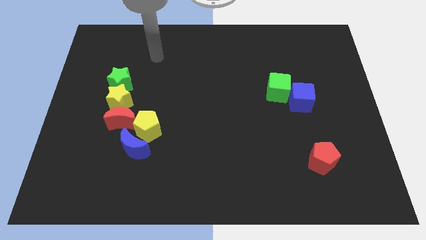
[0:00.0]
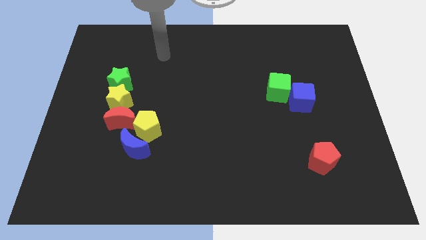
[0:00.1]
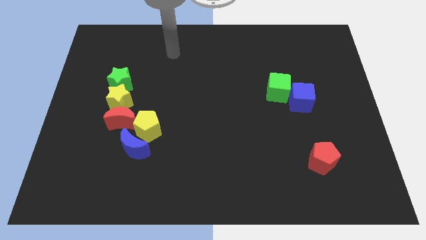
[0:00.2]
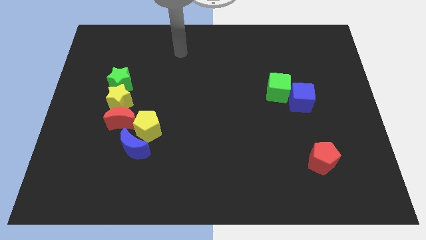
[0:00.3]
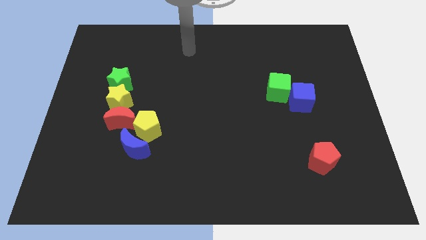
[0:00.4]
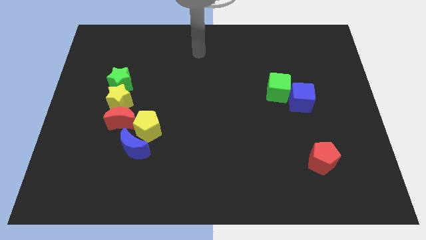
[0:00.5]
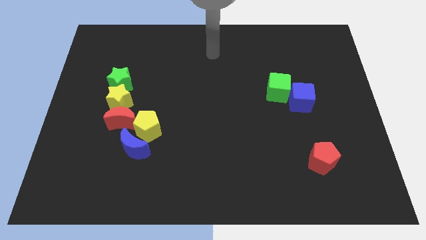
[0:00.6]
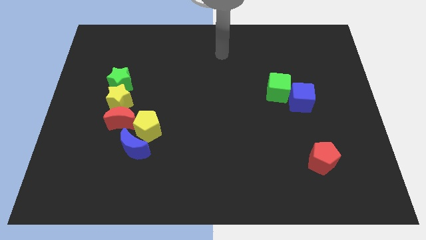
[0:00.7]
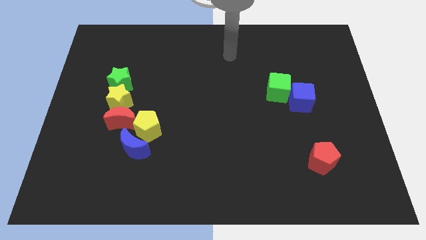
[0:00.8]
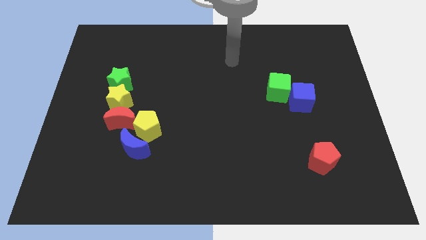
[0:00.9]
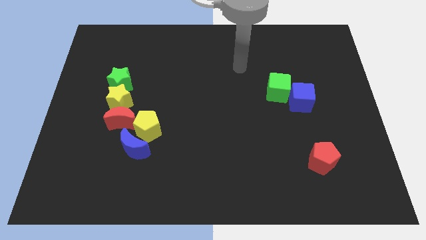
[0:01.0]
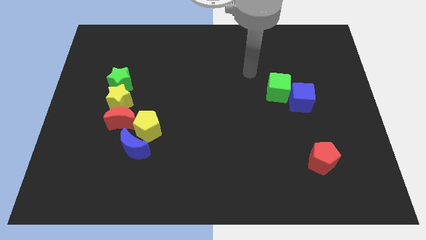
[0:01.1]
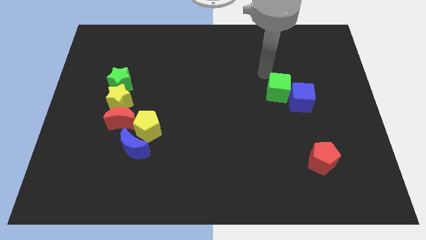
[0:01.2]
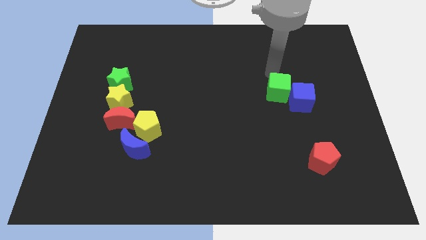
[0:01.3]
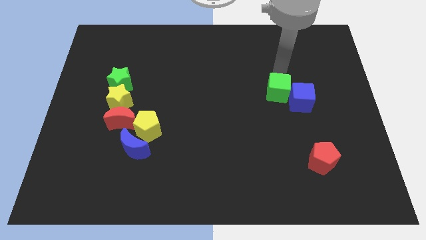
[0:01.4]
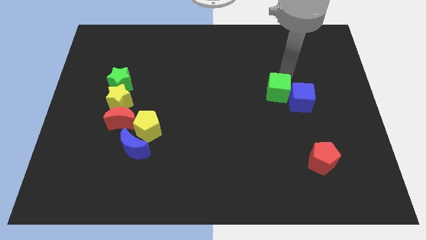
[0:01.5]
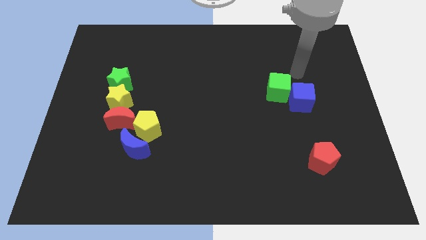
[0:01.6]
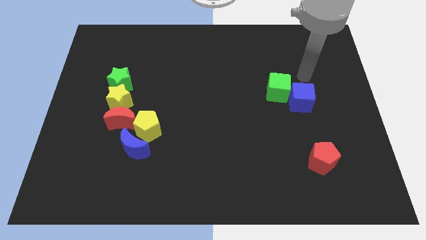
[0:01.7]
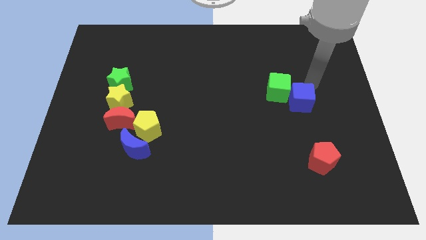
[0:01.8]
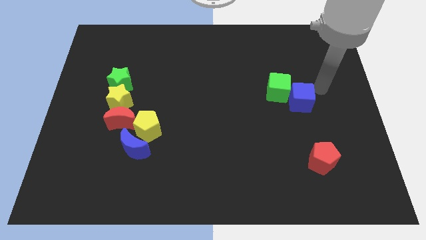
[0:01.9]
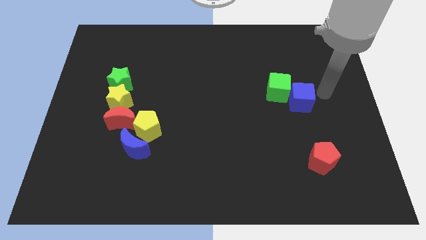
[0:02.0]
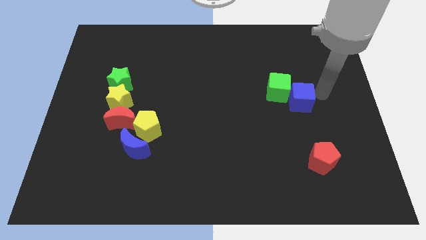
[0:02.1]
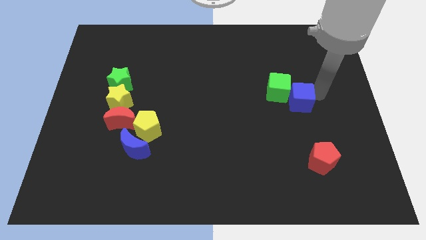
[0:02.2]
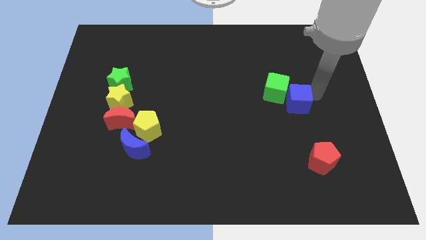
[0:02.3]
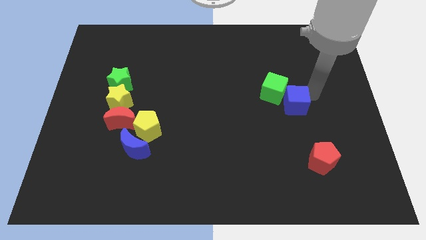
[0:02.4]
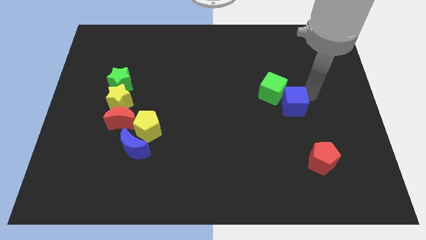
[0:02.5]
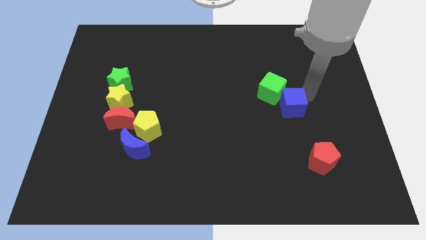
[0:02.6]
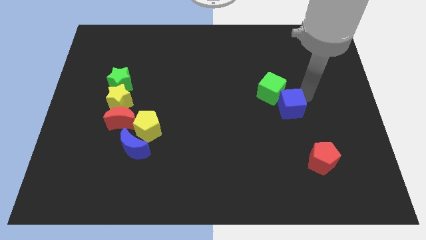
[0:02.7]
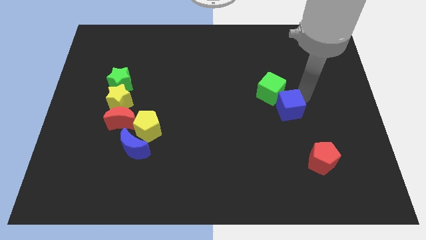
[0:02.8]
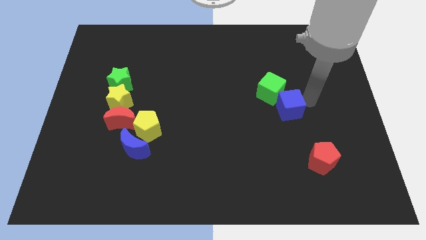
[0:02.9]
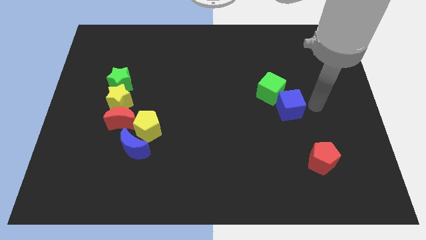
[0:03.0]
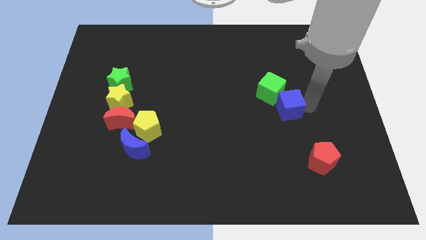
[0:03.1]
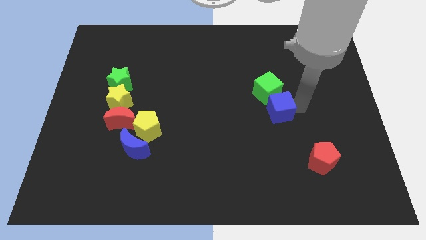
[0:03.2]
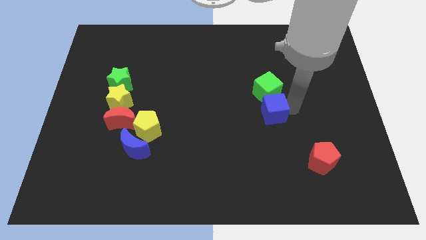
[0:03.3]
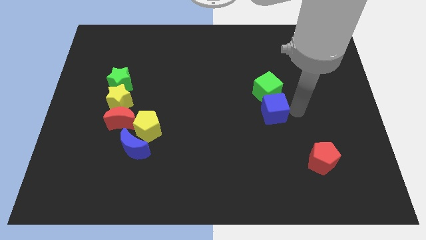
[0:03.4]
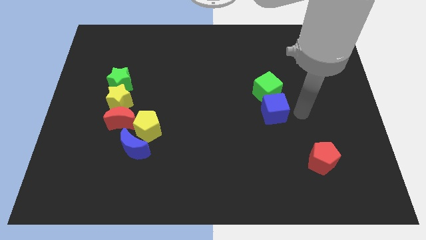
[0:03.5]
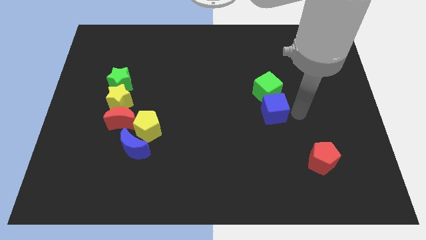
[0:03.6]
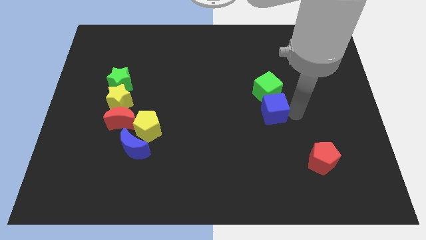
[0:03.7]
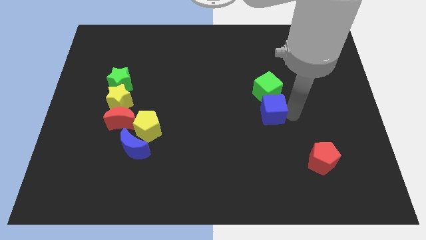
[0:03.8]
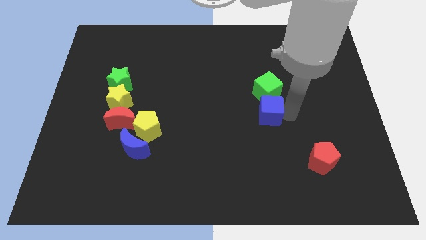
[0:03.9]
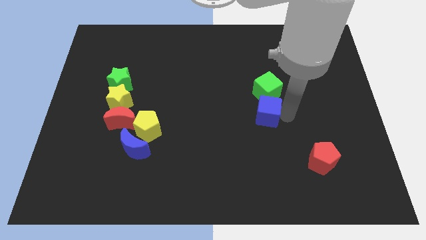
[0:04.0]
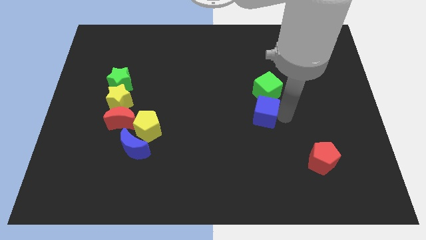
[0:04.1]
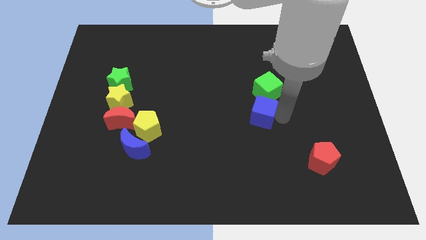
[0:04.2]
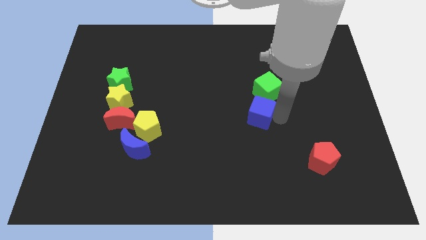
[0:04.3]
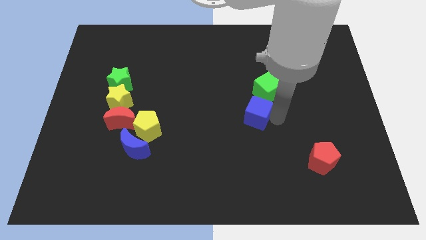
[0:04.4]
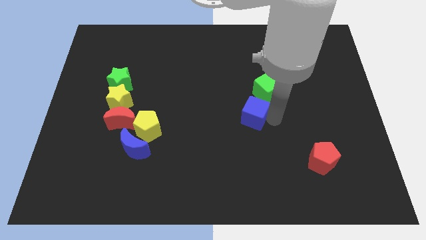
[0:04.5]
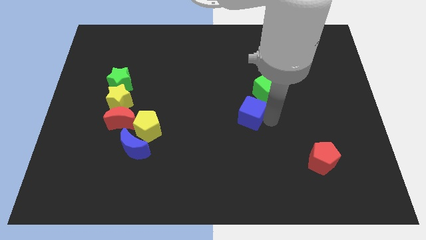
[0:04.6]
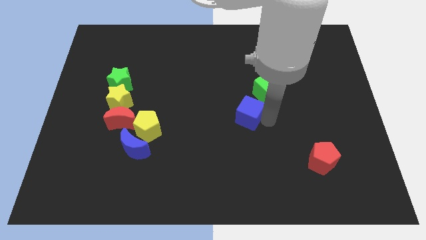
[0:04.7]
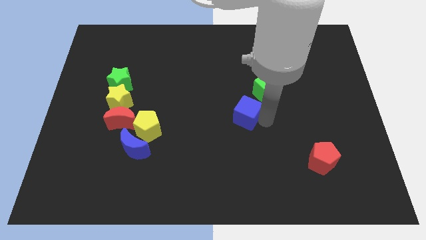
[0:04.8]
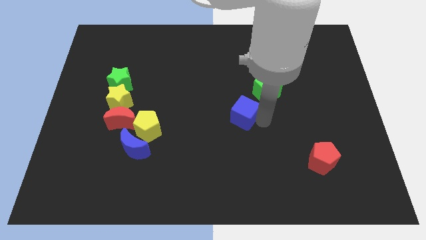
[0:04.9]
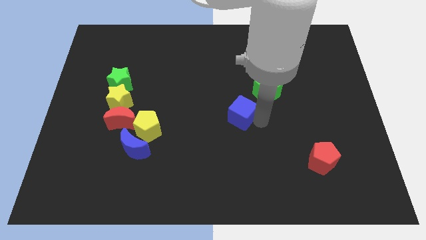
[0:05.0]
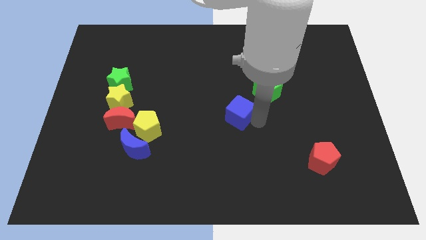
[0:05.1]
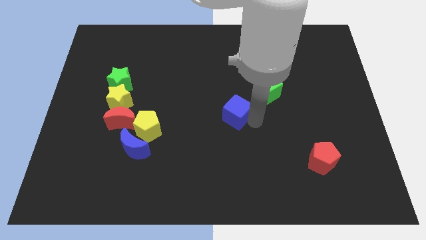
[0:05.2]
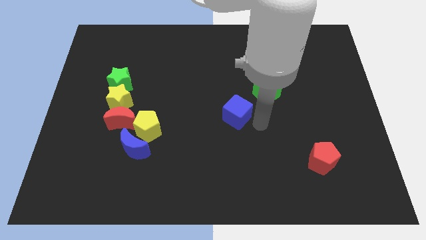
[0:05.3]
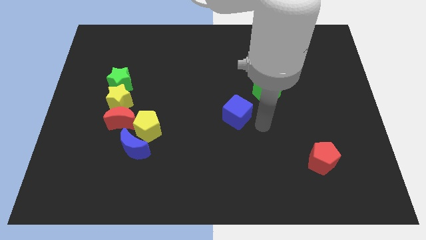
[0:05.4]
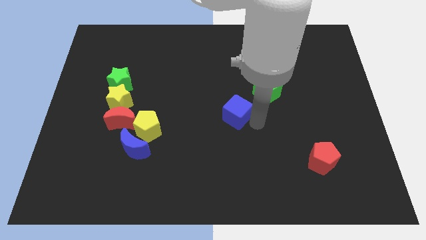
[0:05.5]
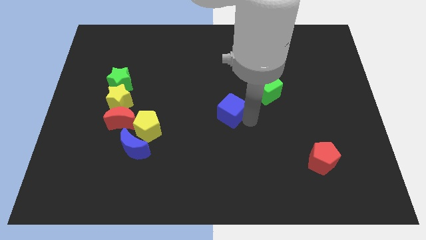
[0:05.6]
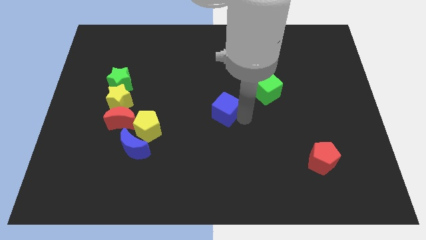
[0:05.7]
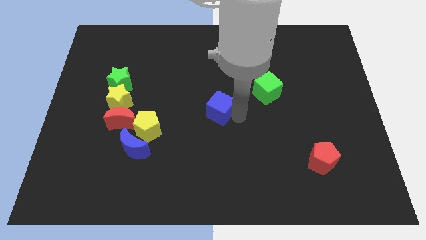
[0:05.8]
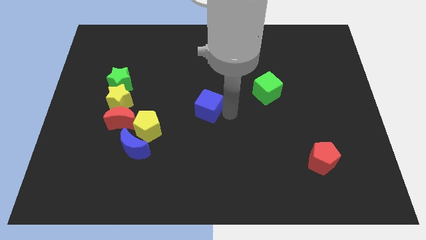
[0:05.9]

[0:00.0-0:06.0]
move the blue cube left

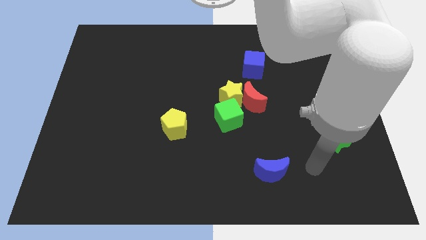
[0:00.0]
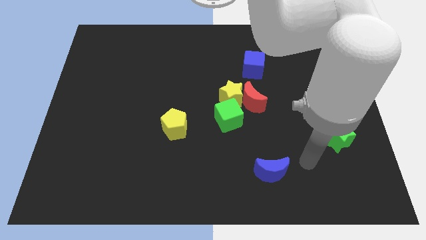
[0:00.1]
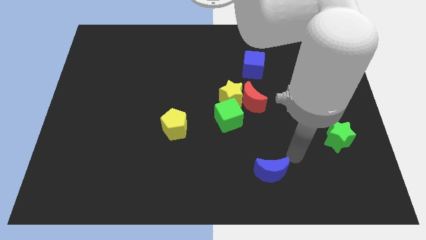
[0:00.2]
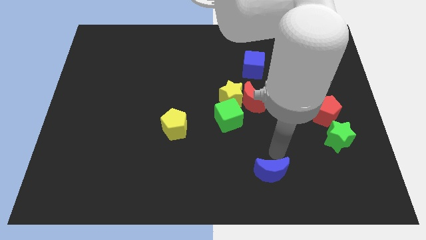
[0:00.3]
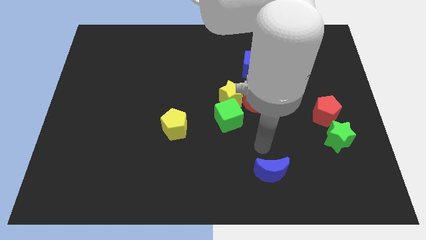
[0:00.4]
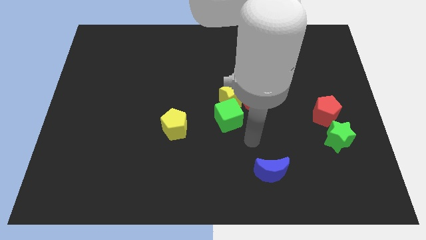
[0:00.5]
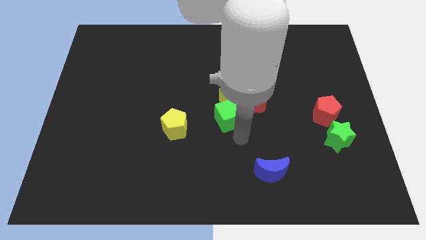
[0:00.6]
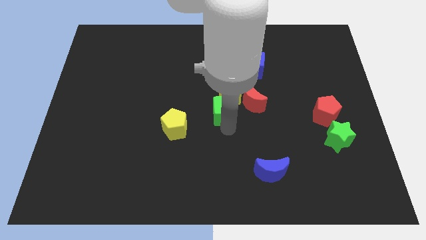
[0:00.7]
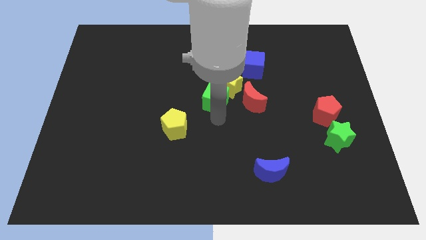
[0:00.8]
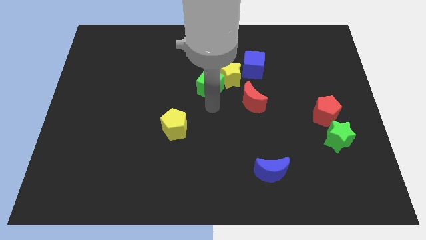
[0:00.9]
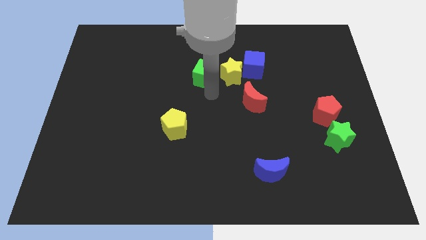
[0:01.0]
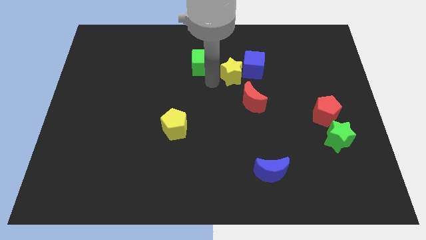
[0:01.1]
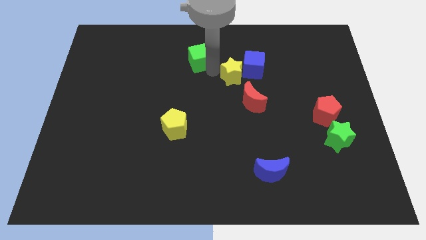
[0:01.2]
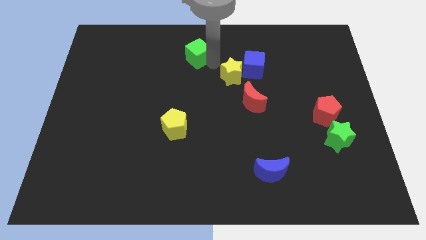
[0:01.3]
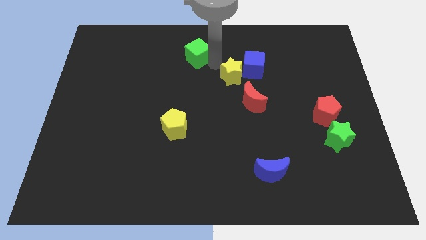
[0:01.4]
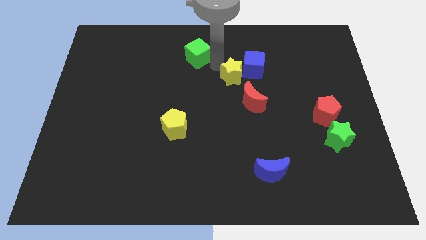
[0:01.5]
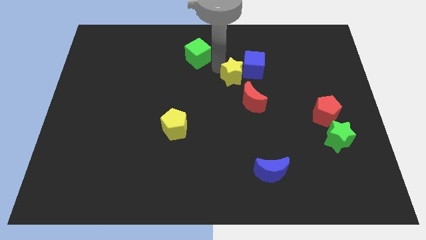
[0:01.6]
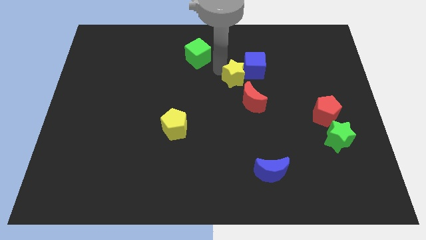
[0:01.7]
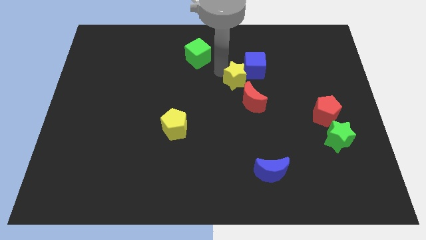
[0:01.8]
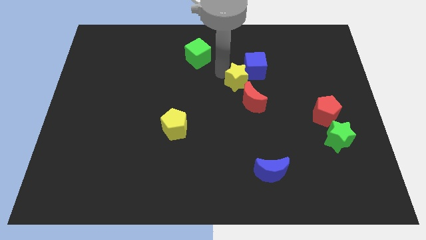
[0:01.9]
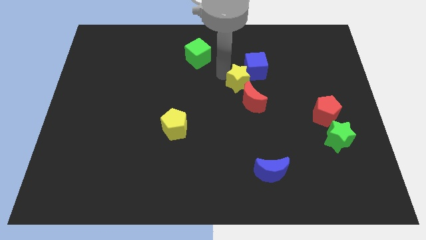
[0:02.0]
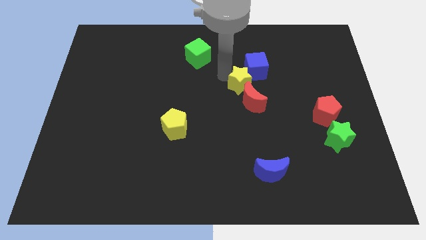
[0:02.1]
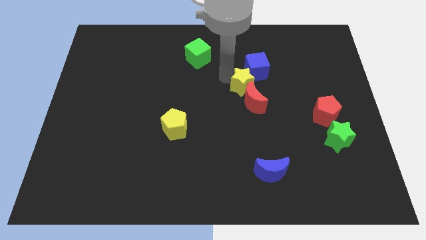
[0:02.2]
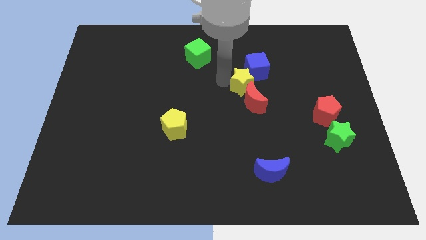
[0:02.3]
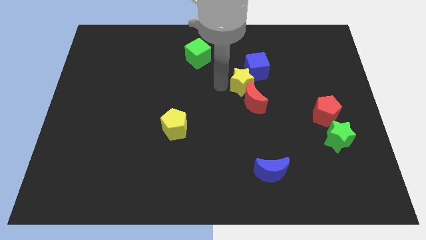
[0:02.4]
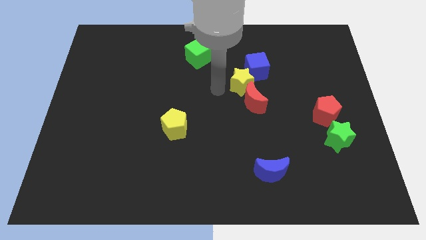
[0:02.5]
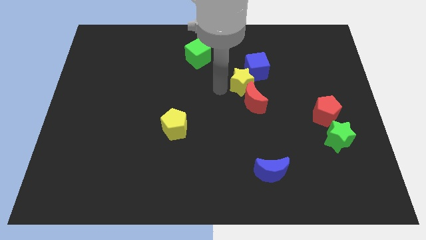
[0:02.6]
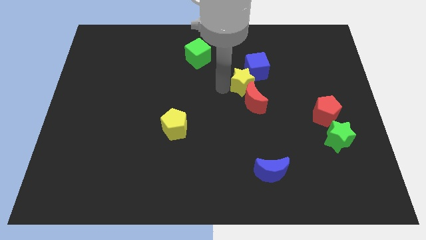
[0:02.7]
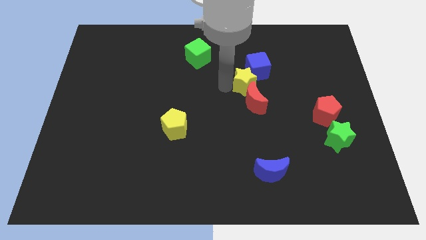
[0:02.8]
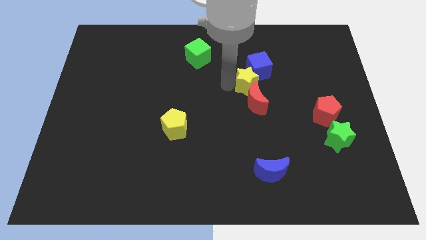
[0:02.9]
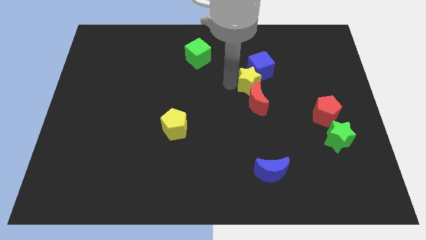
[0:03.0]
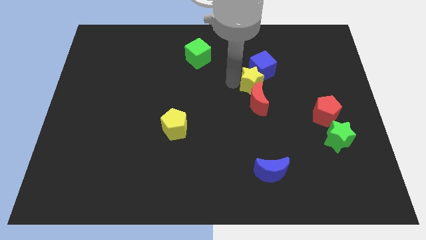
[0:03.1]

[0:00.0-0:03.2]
slightly move the yellow star upwards and right
